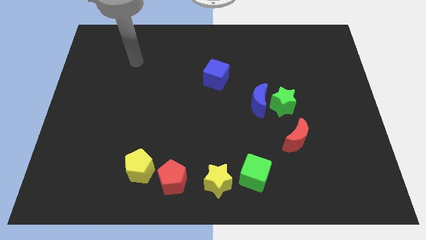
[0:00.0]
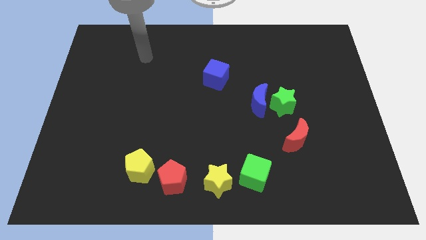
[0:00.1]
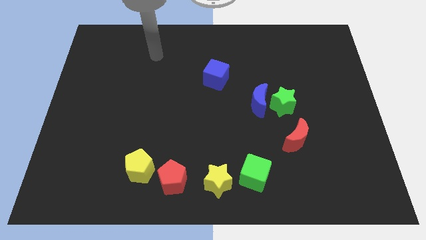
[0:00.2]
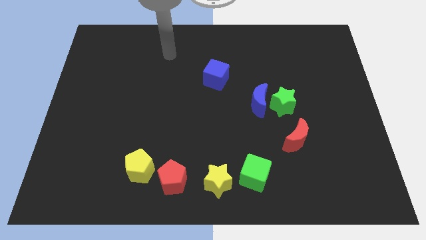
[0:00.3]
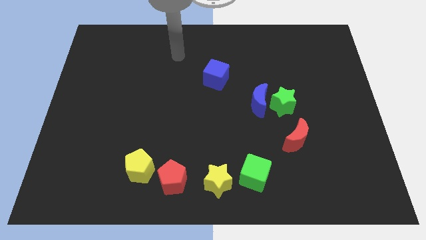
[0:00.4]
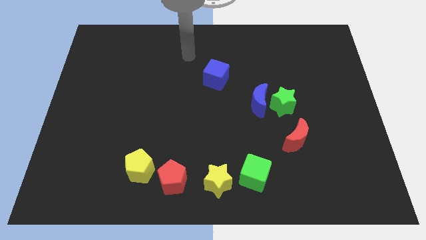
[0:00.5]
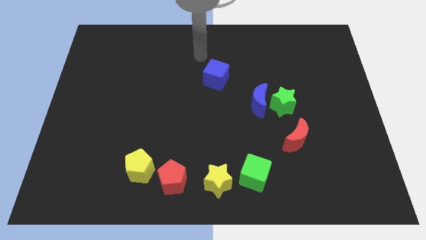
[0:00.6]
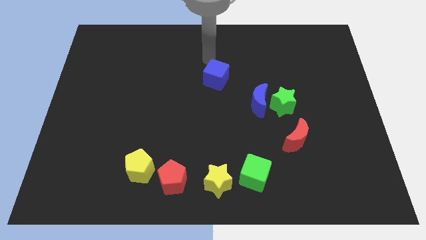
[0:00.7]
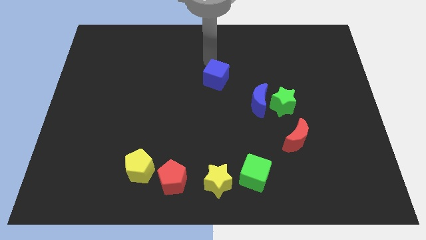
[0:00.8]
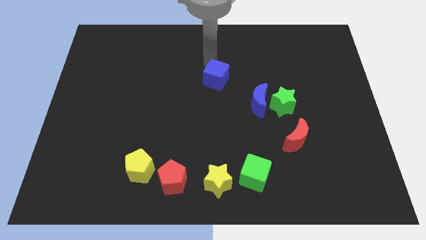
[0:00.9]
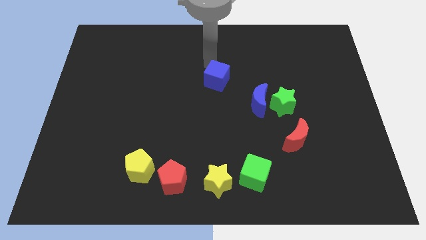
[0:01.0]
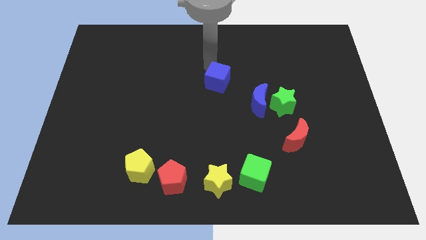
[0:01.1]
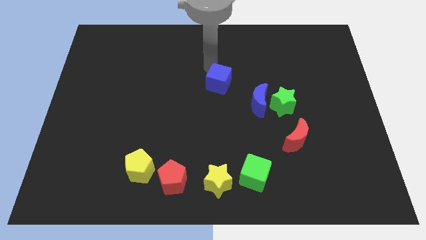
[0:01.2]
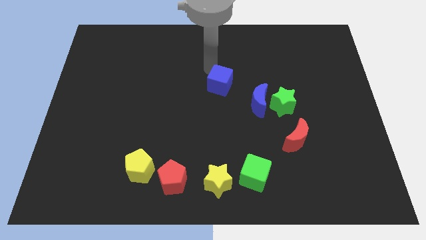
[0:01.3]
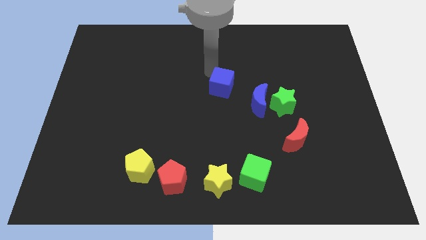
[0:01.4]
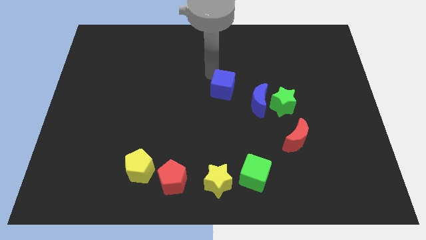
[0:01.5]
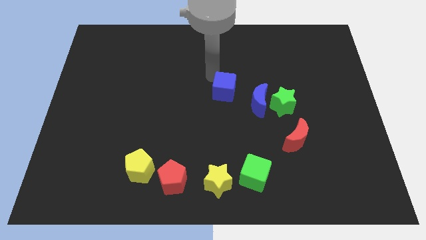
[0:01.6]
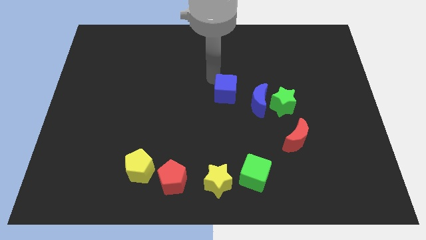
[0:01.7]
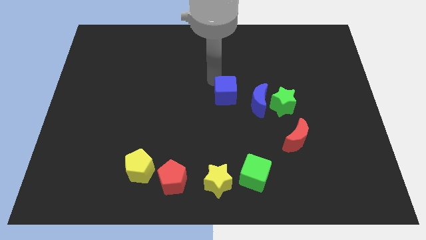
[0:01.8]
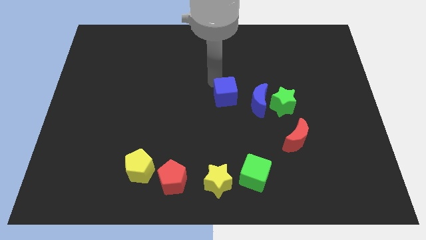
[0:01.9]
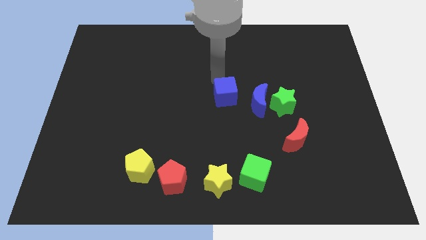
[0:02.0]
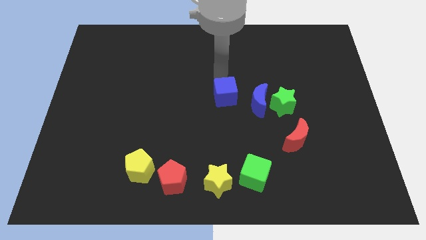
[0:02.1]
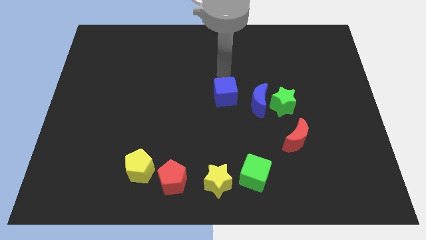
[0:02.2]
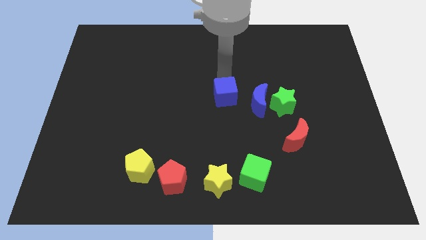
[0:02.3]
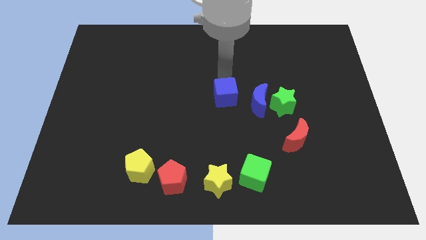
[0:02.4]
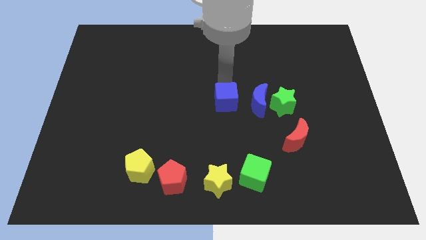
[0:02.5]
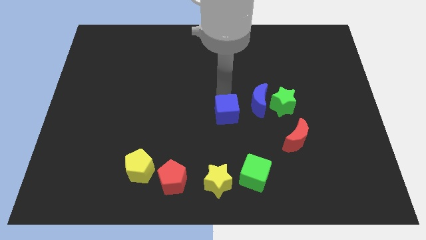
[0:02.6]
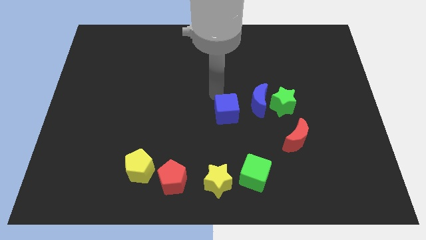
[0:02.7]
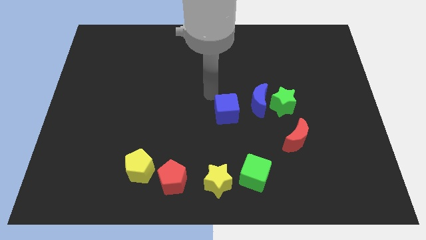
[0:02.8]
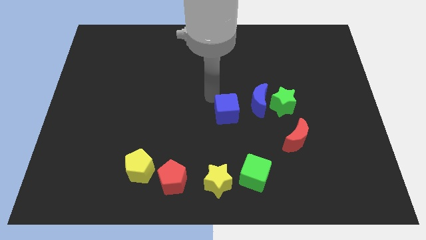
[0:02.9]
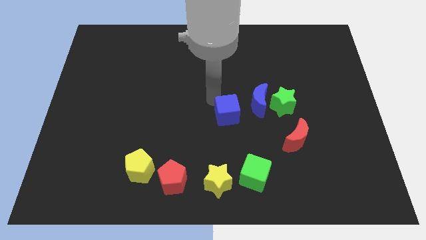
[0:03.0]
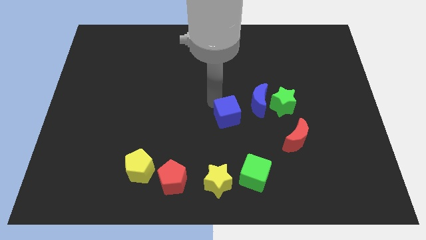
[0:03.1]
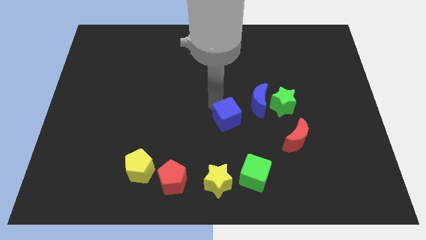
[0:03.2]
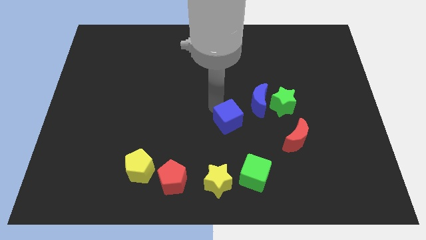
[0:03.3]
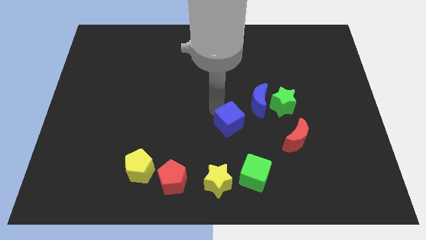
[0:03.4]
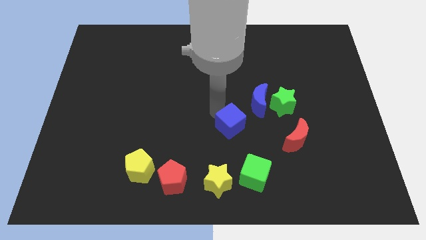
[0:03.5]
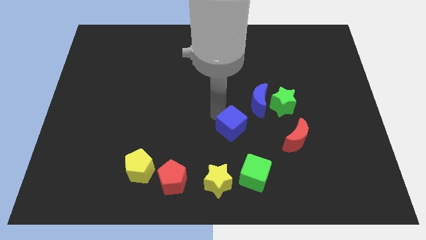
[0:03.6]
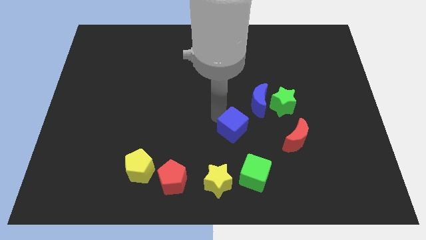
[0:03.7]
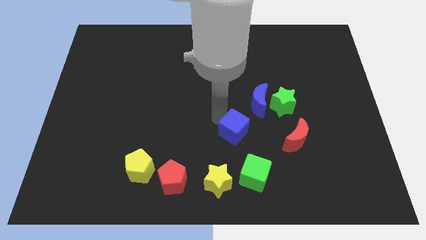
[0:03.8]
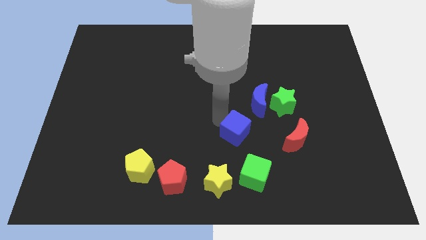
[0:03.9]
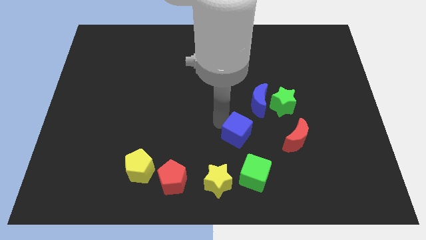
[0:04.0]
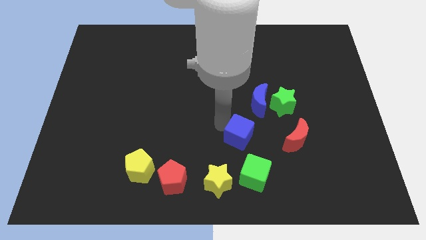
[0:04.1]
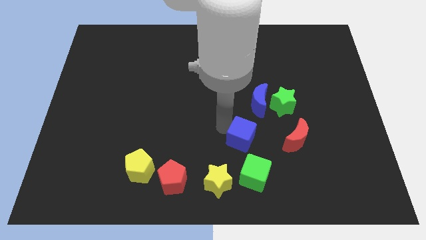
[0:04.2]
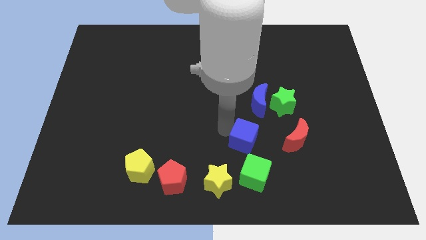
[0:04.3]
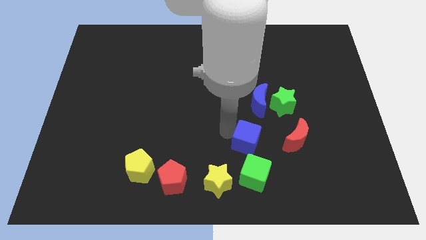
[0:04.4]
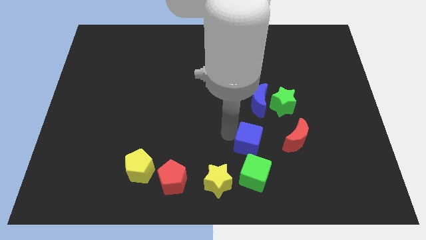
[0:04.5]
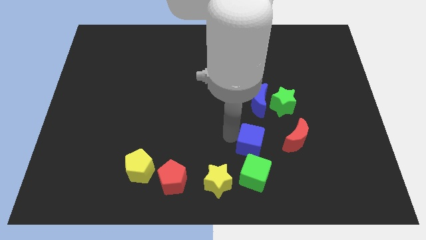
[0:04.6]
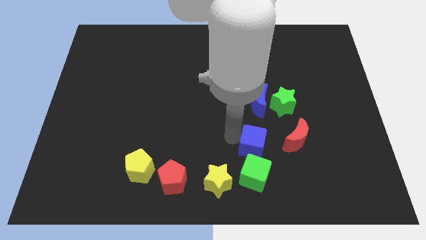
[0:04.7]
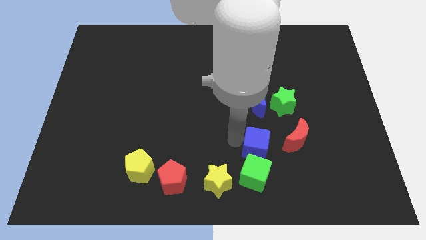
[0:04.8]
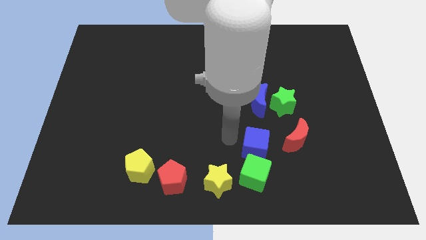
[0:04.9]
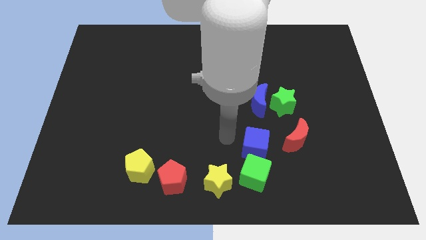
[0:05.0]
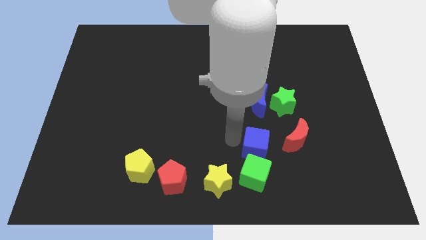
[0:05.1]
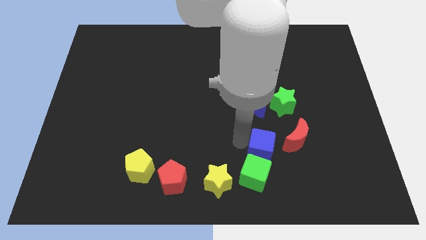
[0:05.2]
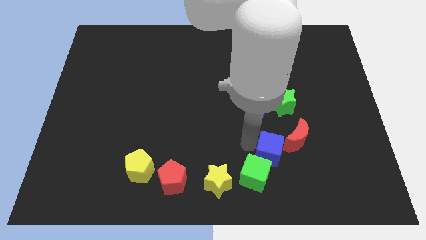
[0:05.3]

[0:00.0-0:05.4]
slide the blue cube downwards and right diagonally

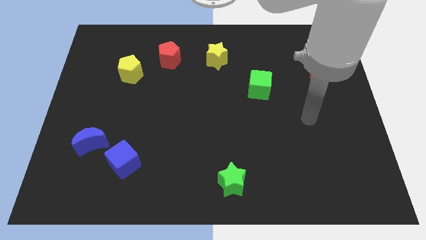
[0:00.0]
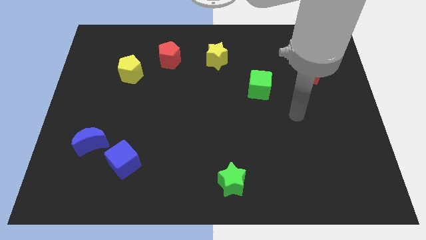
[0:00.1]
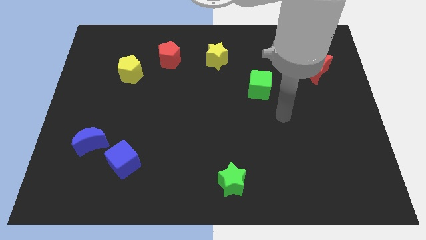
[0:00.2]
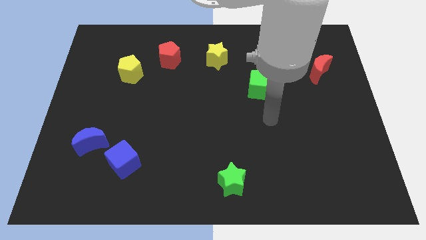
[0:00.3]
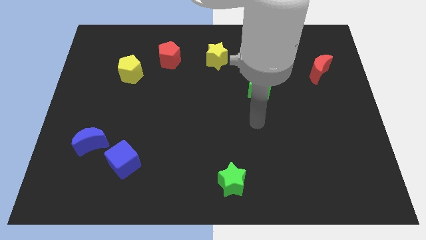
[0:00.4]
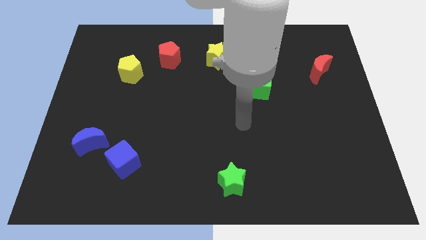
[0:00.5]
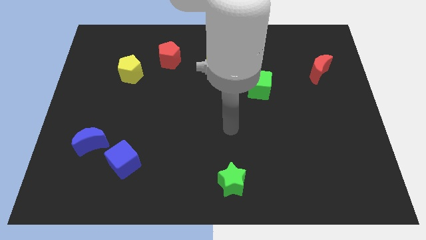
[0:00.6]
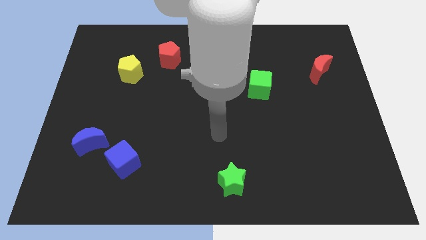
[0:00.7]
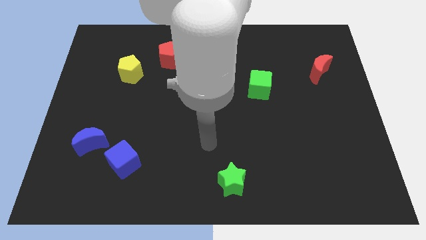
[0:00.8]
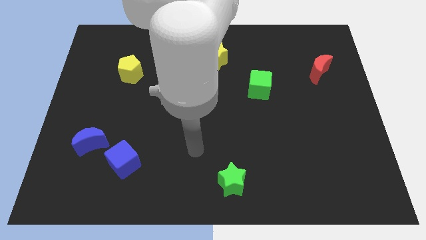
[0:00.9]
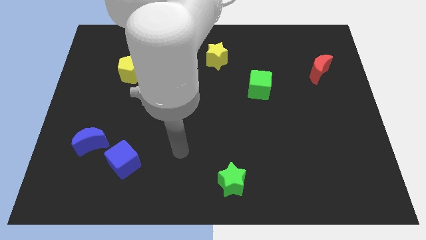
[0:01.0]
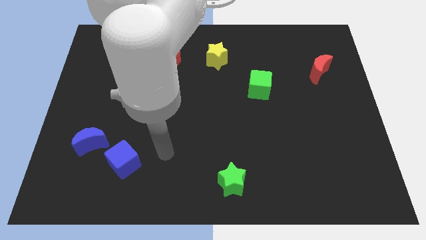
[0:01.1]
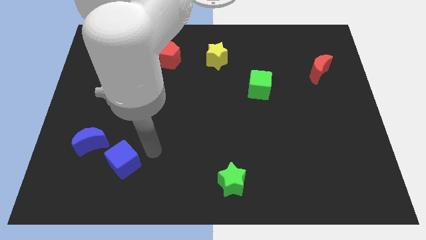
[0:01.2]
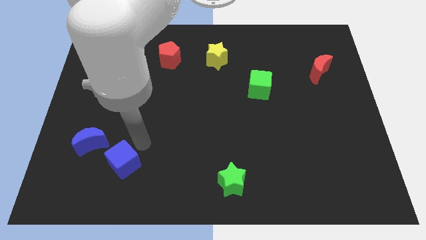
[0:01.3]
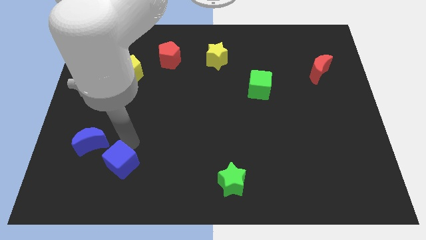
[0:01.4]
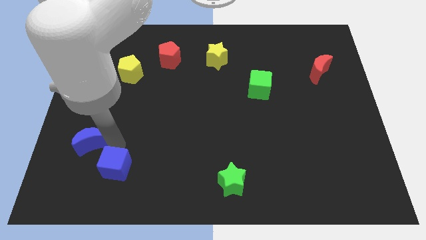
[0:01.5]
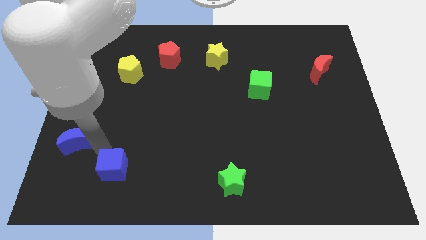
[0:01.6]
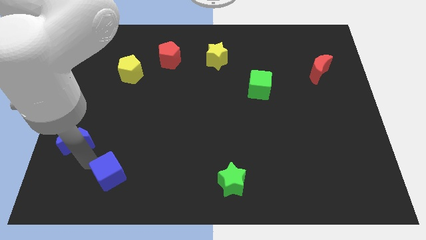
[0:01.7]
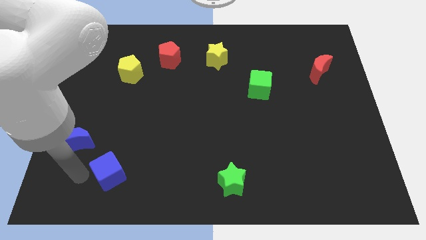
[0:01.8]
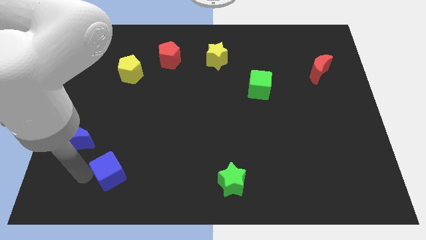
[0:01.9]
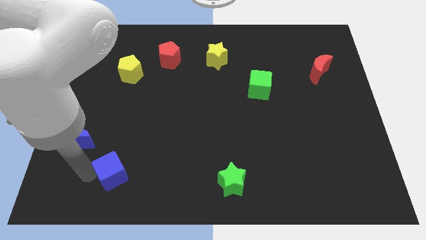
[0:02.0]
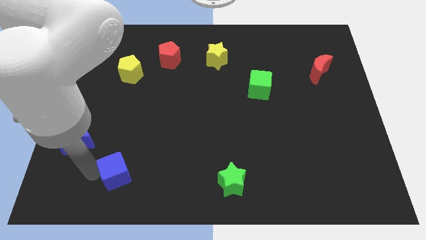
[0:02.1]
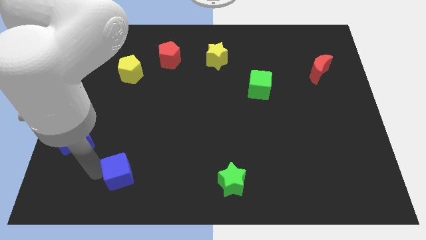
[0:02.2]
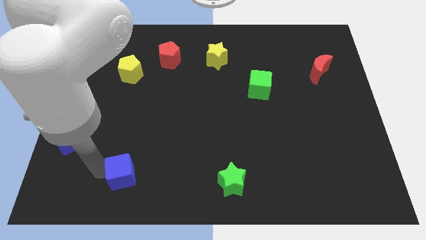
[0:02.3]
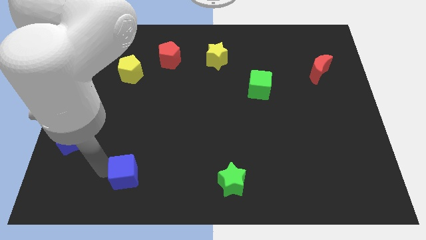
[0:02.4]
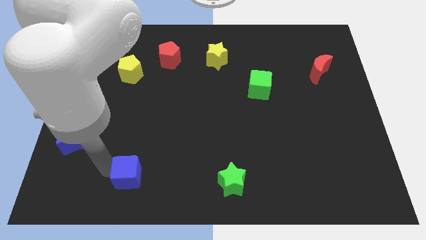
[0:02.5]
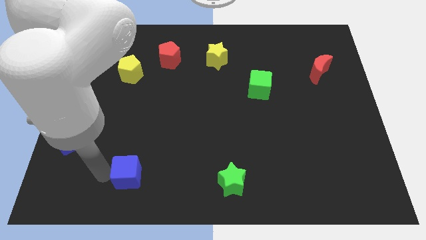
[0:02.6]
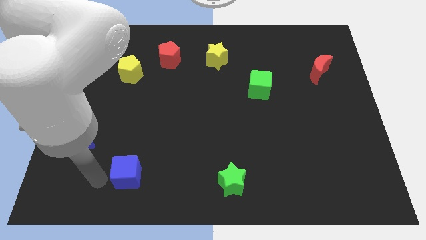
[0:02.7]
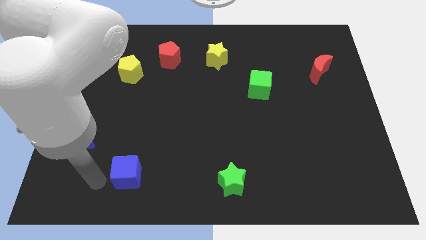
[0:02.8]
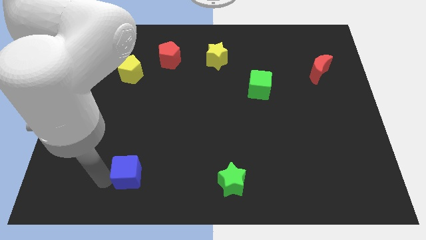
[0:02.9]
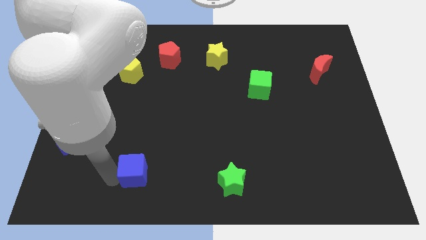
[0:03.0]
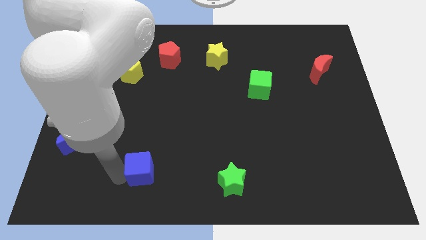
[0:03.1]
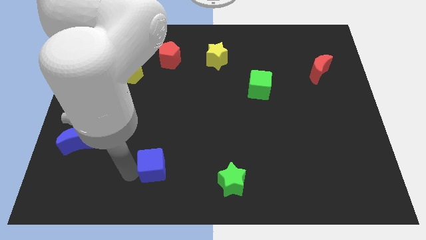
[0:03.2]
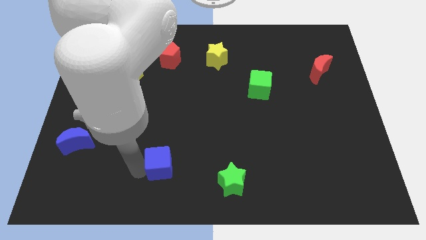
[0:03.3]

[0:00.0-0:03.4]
push the blue cube slightly right
